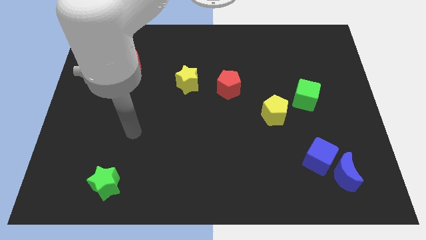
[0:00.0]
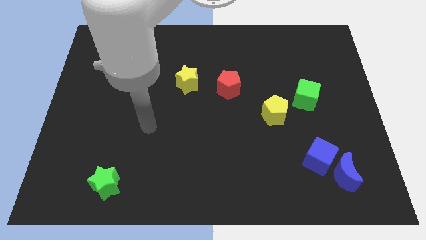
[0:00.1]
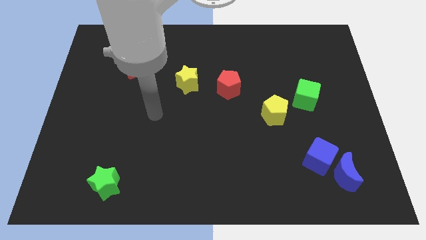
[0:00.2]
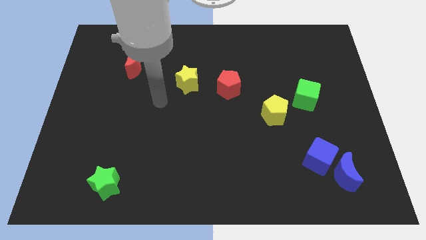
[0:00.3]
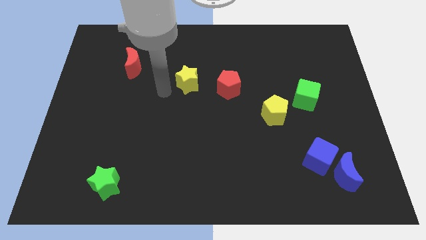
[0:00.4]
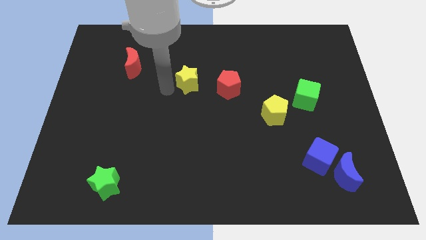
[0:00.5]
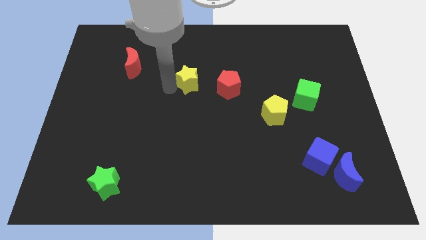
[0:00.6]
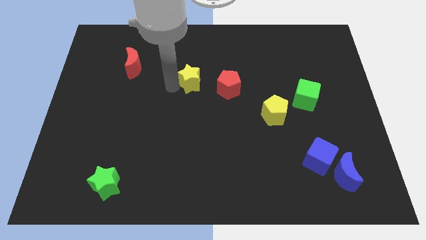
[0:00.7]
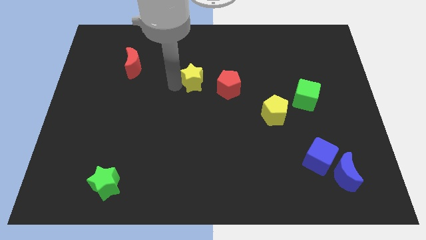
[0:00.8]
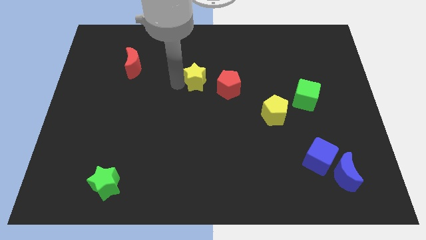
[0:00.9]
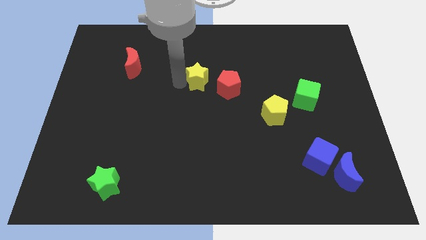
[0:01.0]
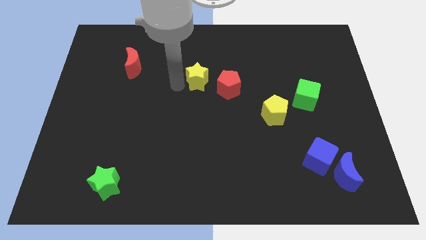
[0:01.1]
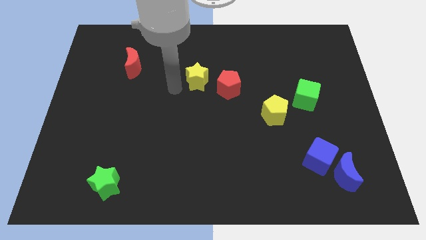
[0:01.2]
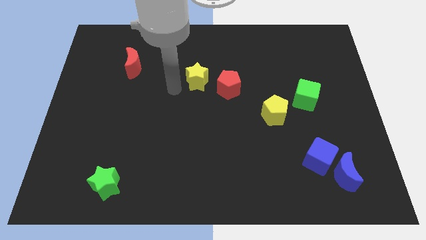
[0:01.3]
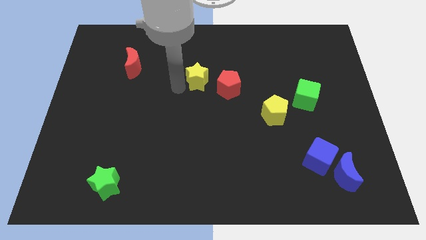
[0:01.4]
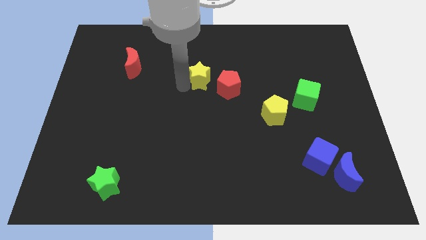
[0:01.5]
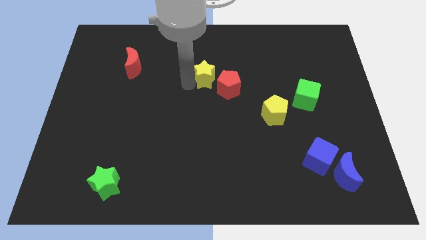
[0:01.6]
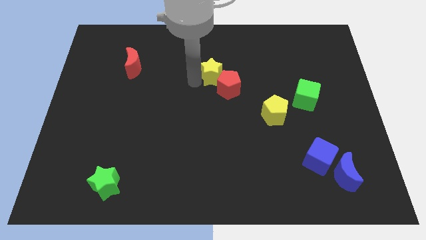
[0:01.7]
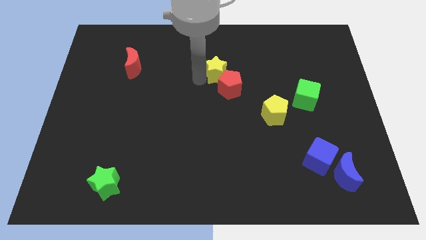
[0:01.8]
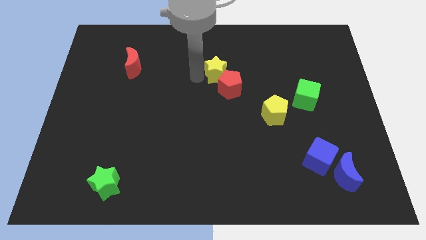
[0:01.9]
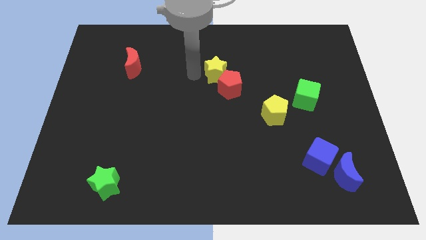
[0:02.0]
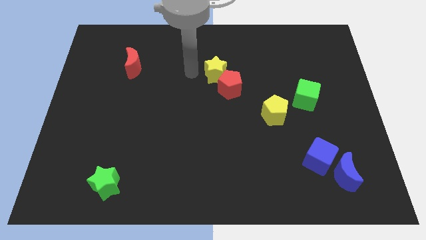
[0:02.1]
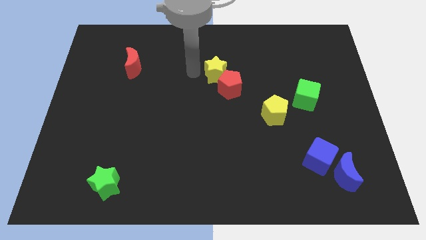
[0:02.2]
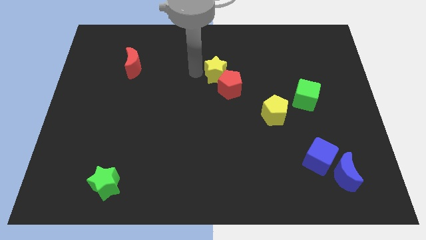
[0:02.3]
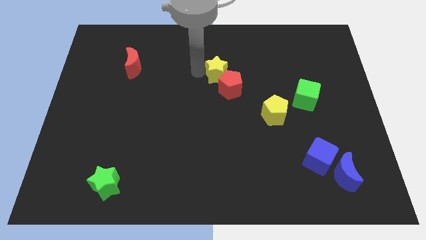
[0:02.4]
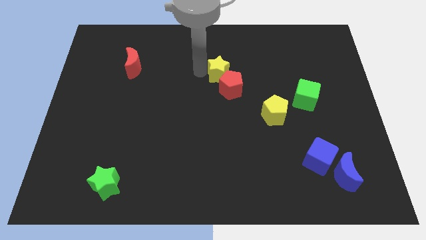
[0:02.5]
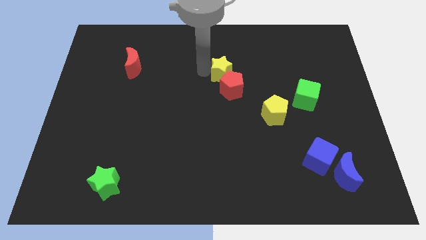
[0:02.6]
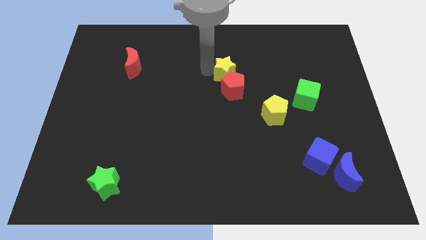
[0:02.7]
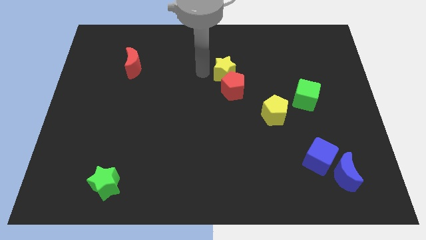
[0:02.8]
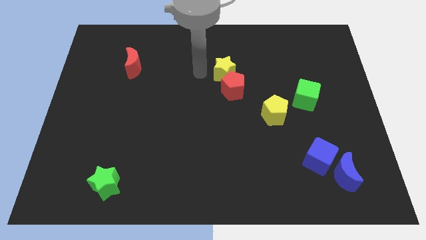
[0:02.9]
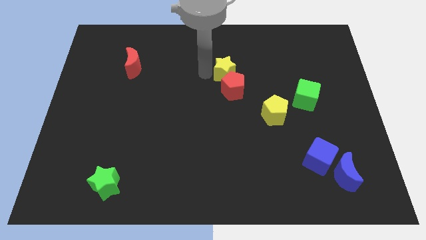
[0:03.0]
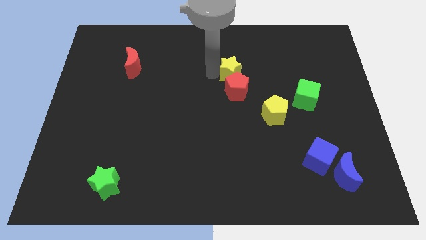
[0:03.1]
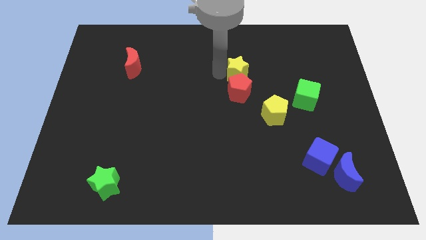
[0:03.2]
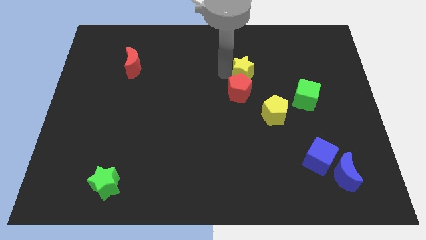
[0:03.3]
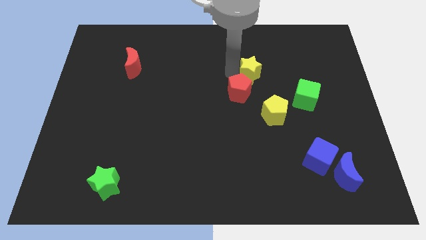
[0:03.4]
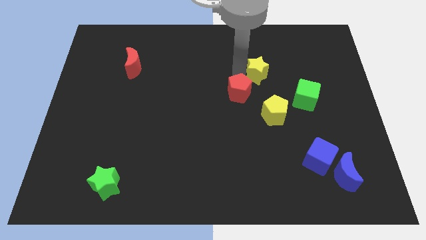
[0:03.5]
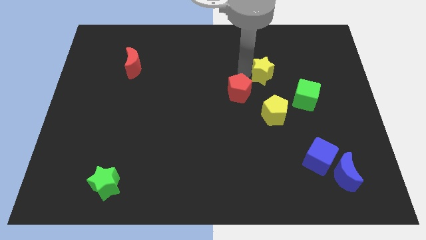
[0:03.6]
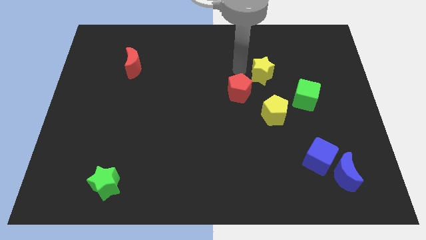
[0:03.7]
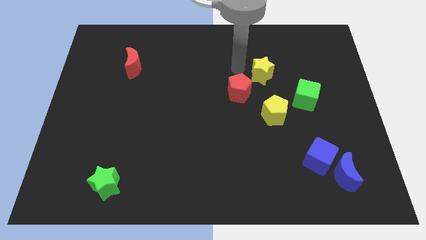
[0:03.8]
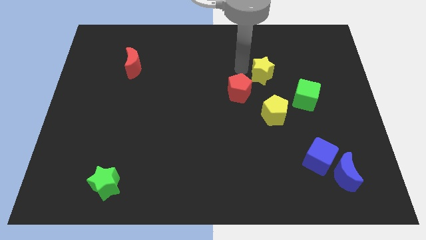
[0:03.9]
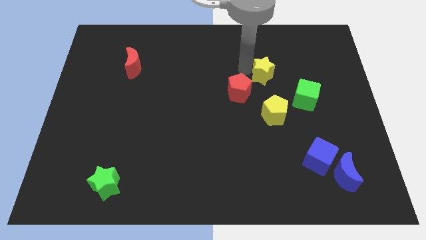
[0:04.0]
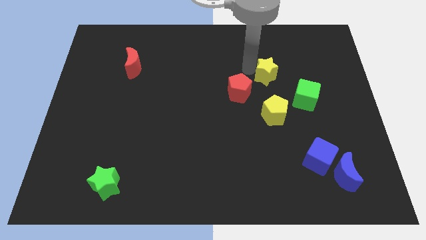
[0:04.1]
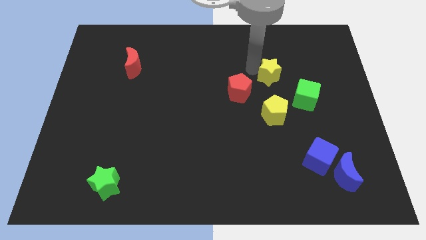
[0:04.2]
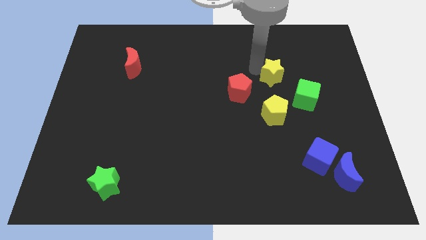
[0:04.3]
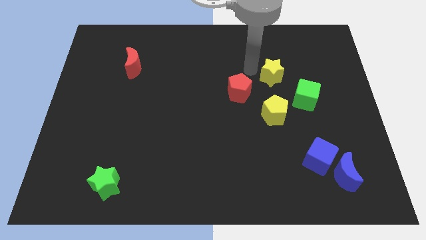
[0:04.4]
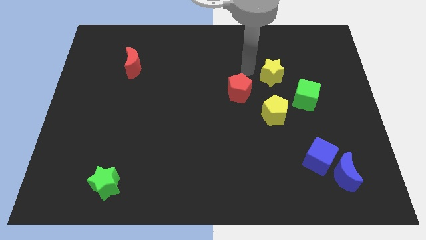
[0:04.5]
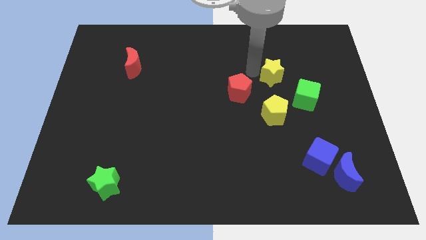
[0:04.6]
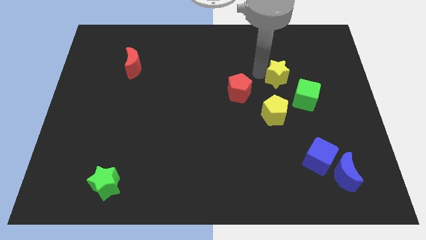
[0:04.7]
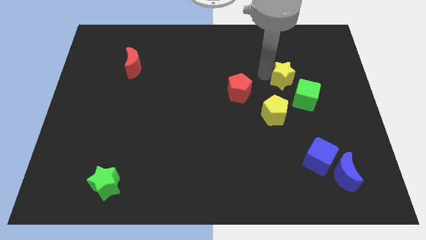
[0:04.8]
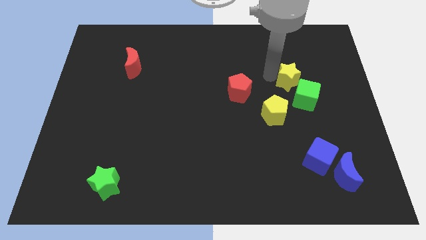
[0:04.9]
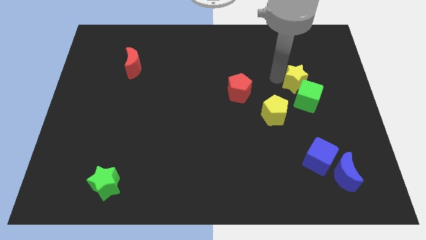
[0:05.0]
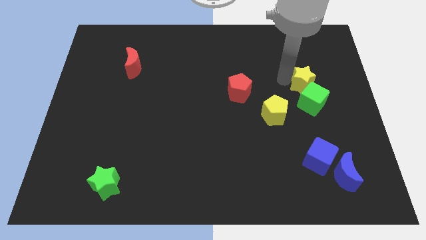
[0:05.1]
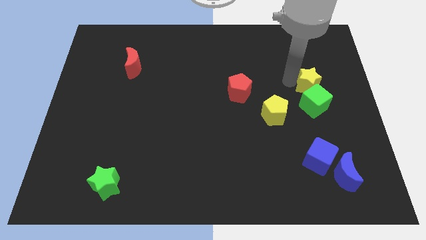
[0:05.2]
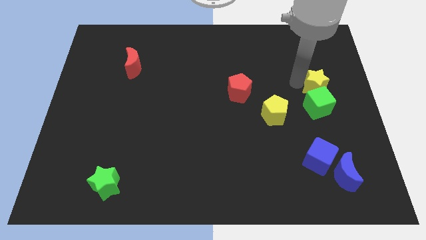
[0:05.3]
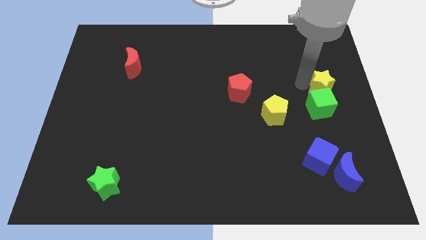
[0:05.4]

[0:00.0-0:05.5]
slide the yellow star to the right side of the board

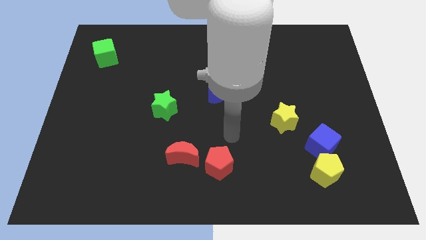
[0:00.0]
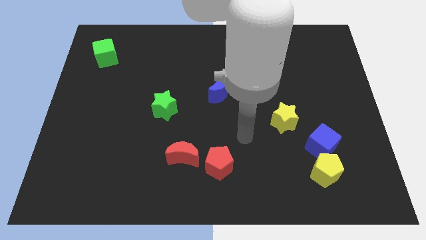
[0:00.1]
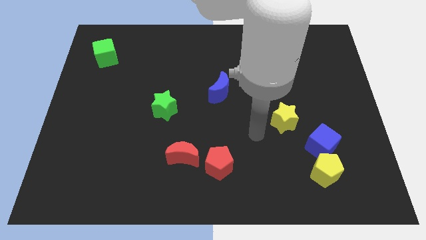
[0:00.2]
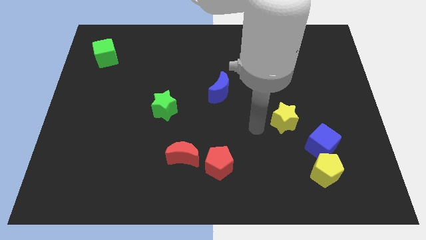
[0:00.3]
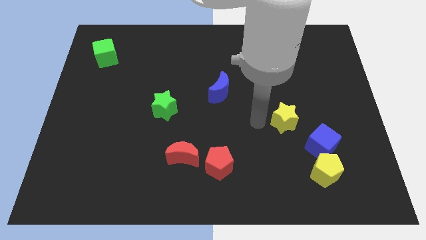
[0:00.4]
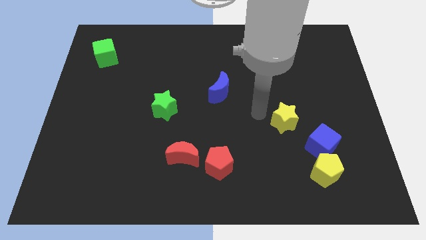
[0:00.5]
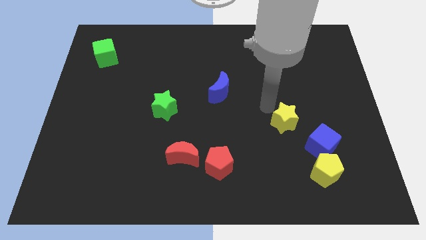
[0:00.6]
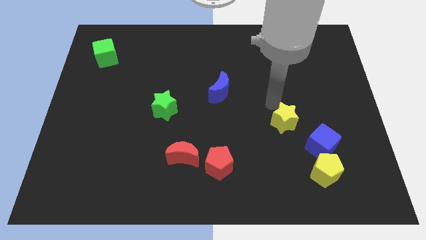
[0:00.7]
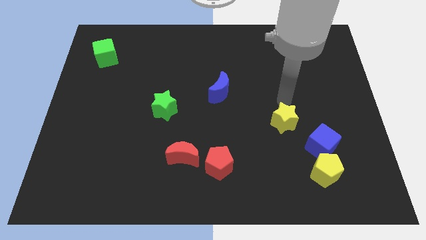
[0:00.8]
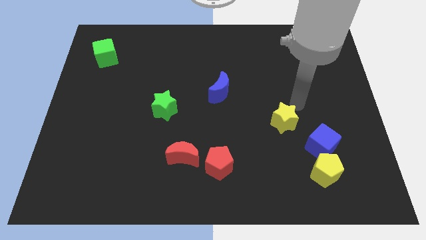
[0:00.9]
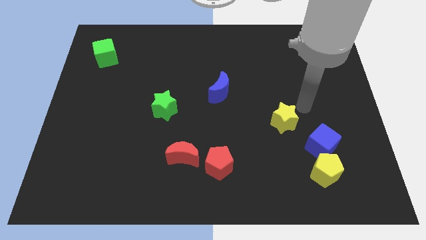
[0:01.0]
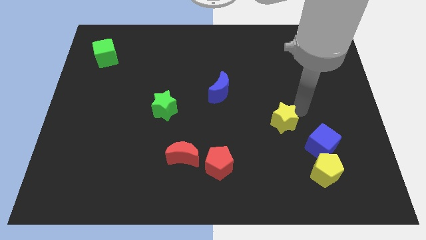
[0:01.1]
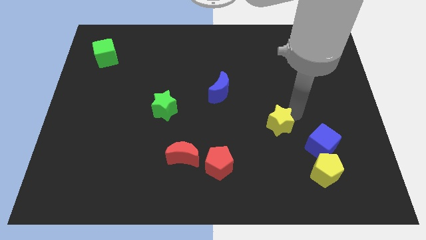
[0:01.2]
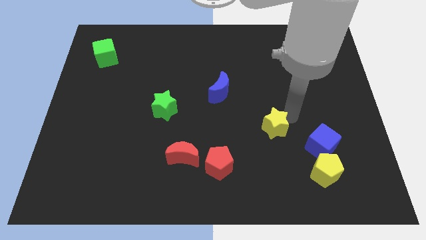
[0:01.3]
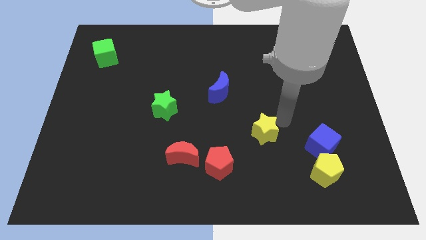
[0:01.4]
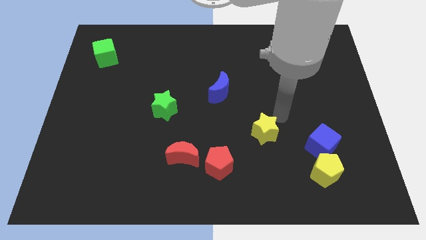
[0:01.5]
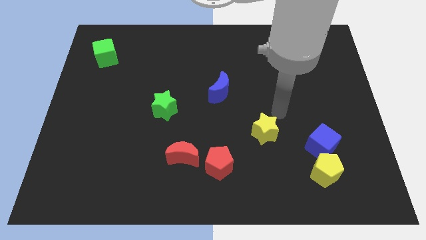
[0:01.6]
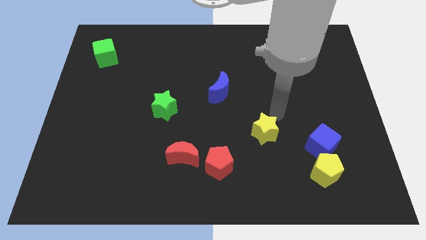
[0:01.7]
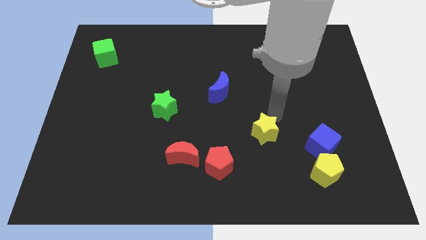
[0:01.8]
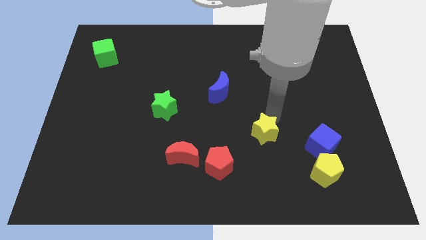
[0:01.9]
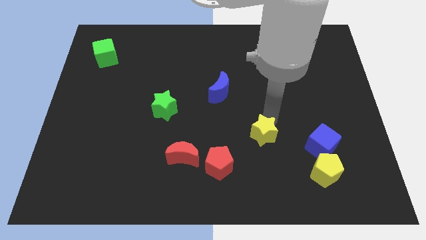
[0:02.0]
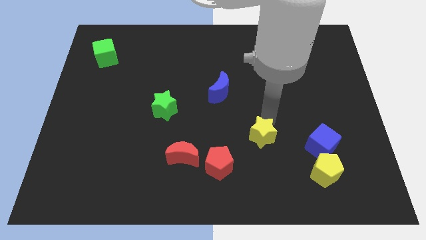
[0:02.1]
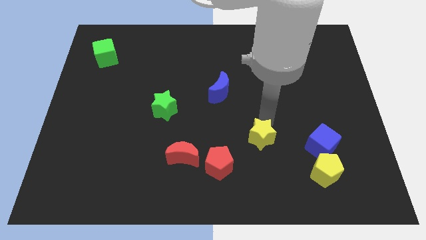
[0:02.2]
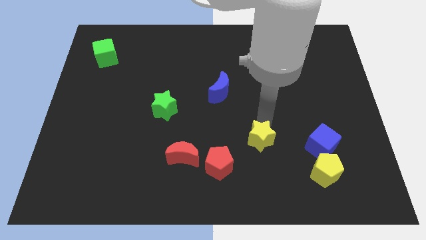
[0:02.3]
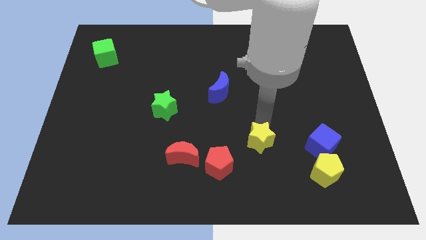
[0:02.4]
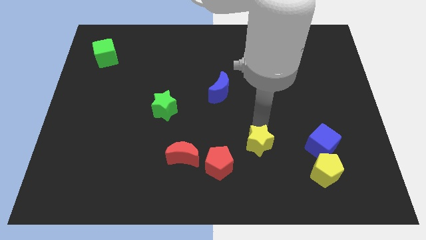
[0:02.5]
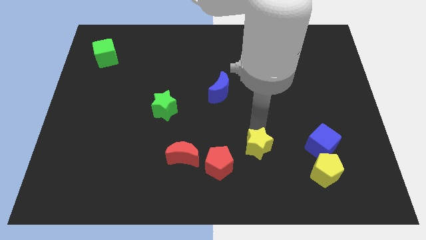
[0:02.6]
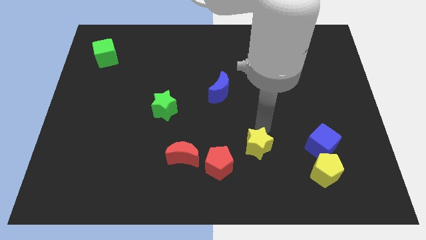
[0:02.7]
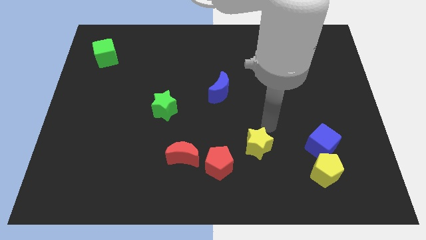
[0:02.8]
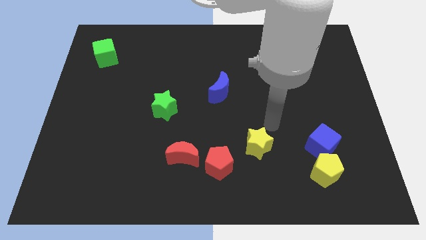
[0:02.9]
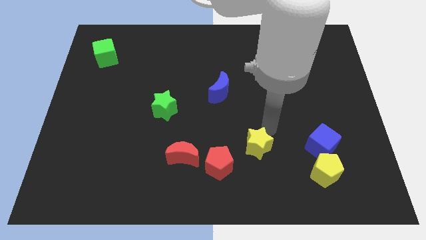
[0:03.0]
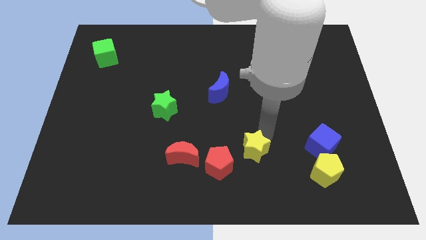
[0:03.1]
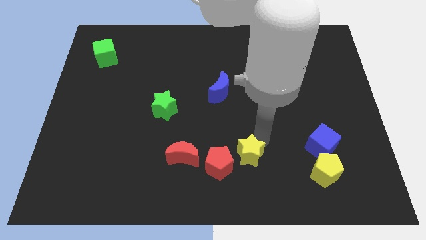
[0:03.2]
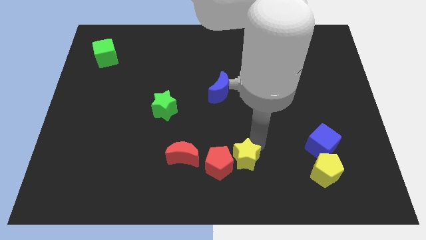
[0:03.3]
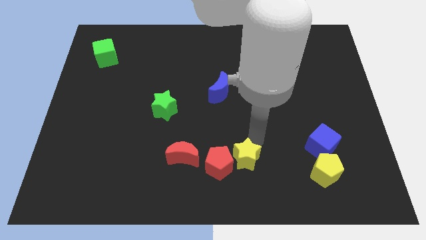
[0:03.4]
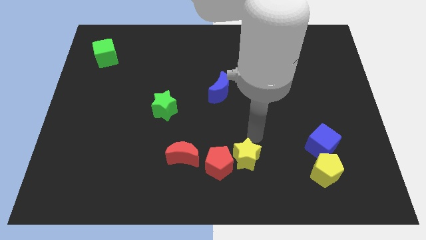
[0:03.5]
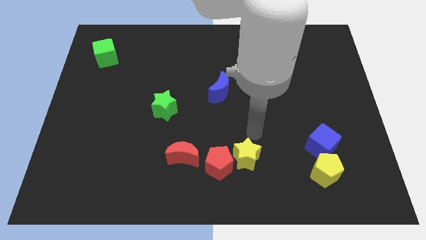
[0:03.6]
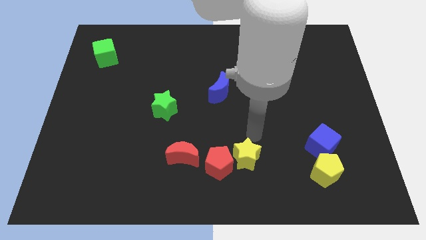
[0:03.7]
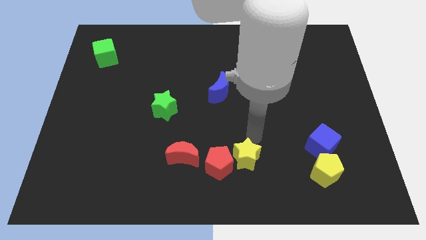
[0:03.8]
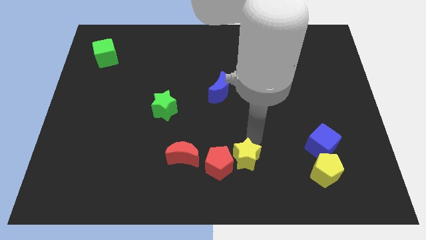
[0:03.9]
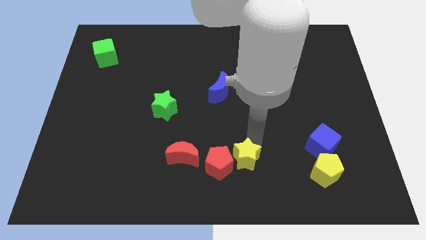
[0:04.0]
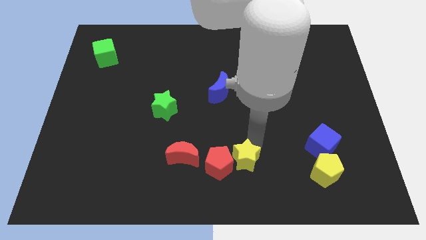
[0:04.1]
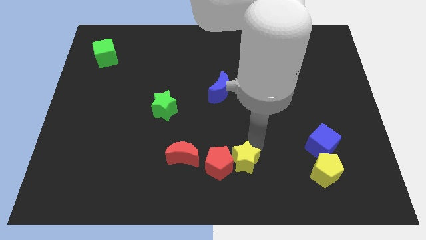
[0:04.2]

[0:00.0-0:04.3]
push the yellow star to the bottom
